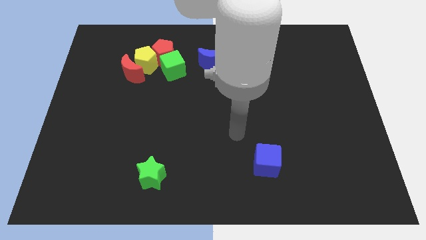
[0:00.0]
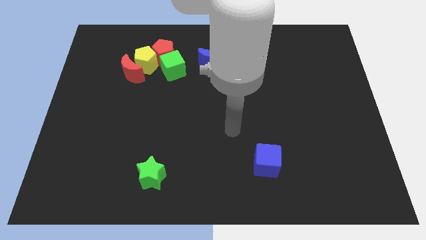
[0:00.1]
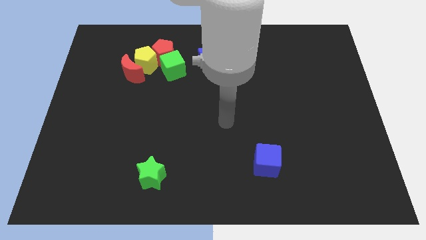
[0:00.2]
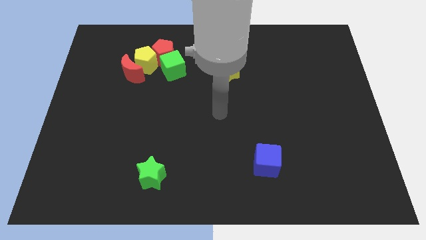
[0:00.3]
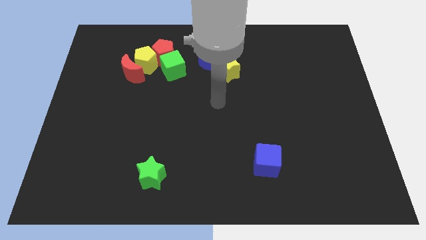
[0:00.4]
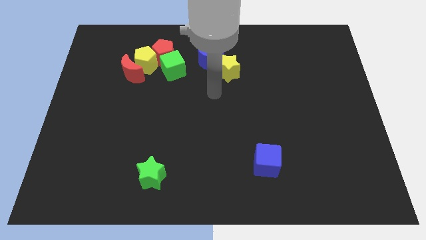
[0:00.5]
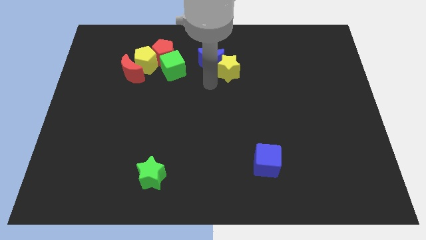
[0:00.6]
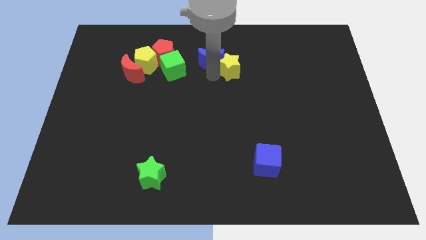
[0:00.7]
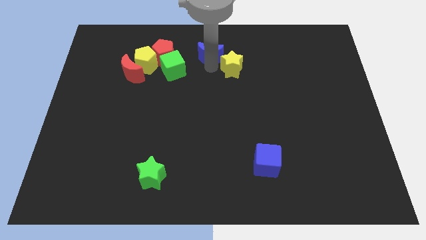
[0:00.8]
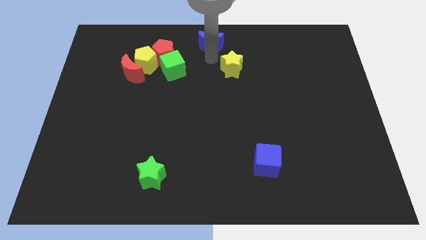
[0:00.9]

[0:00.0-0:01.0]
pull the yellow star apart from the blue moon

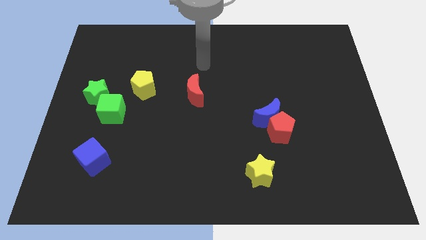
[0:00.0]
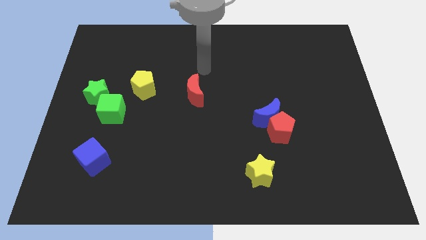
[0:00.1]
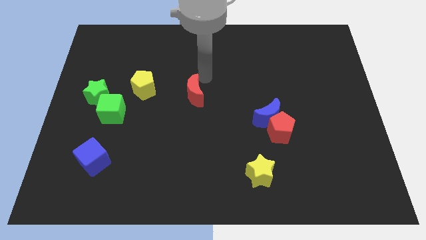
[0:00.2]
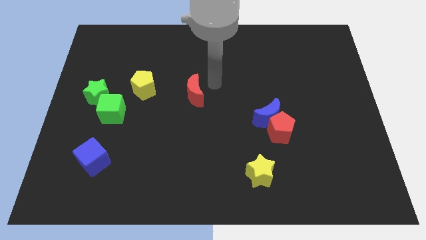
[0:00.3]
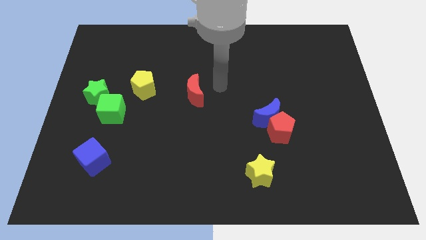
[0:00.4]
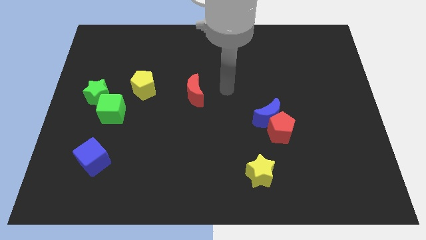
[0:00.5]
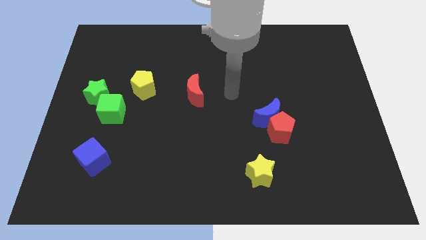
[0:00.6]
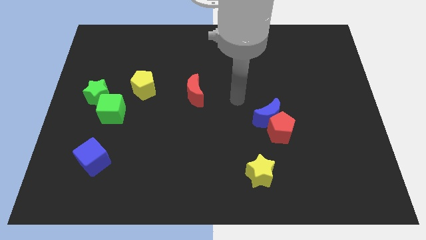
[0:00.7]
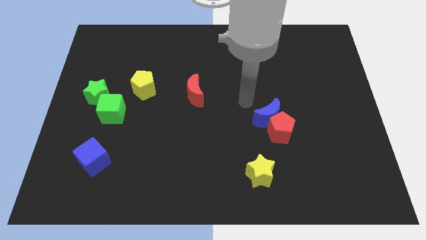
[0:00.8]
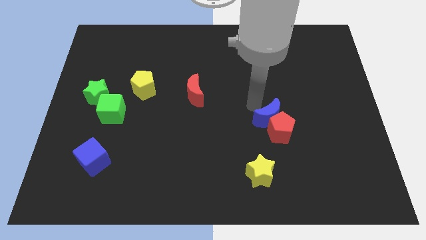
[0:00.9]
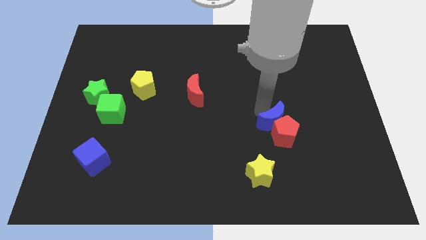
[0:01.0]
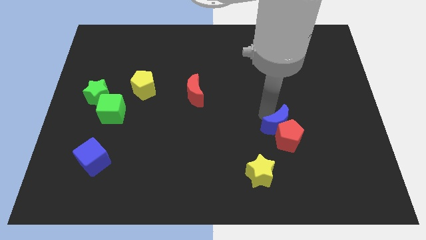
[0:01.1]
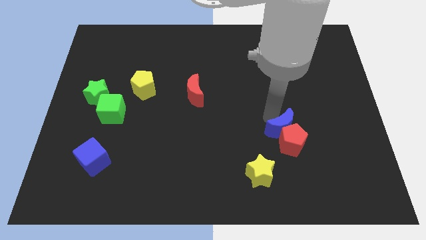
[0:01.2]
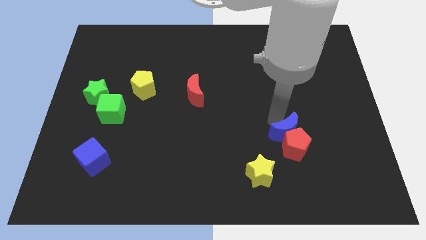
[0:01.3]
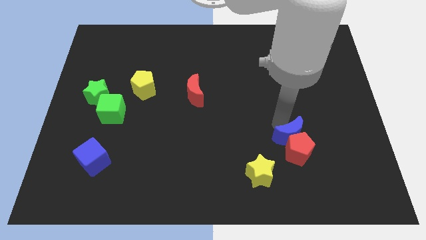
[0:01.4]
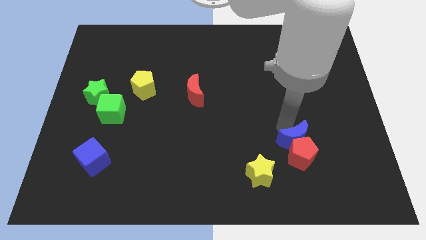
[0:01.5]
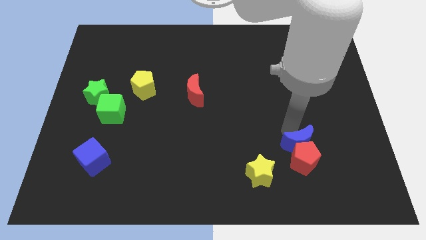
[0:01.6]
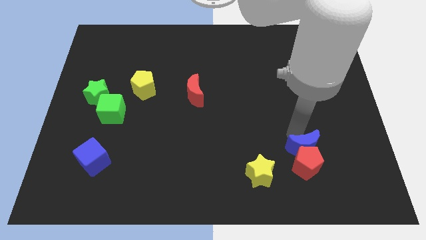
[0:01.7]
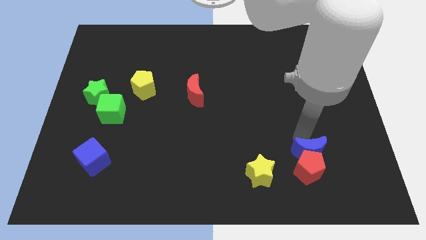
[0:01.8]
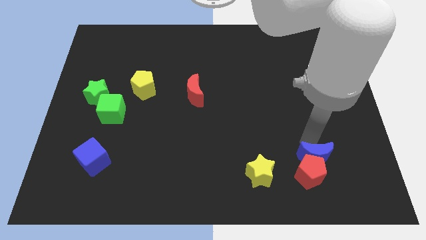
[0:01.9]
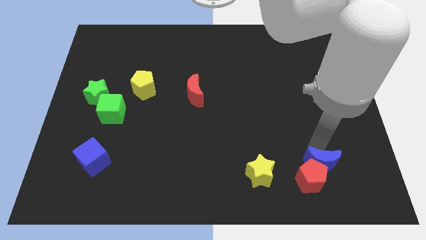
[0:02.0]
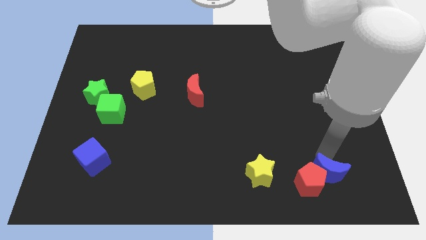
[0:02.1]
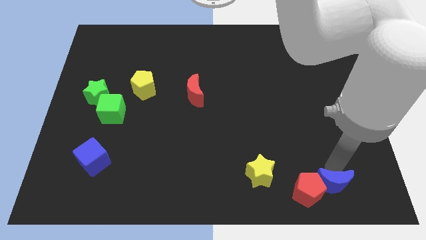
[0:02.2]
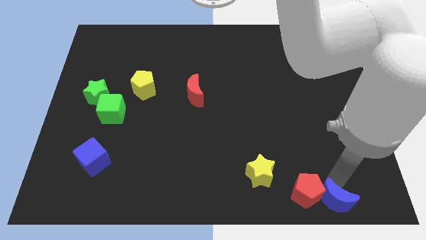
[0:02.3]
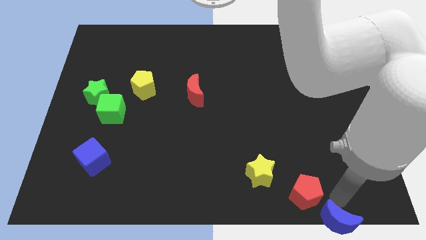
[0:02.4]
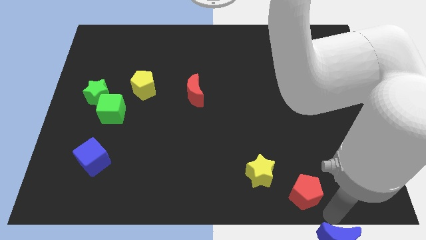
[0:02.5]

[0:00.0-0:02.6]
move the red pentagon away from the blue moon

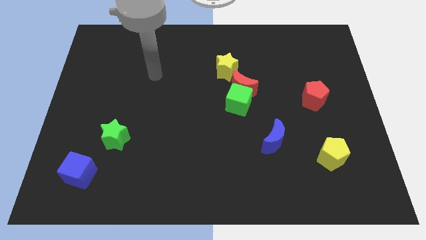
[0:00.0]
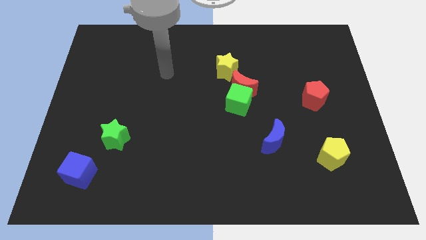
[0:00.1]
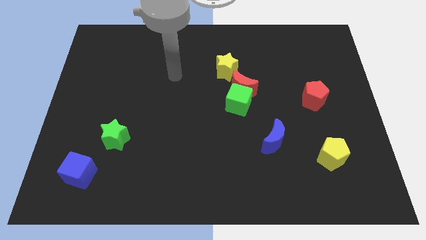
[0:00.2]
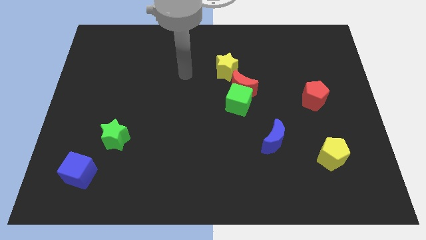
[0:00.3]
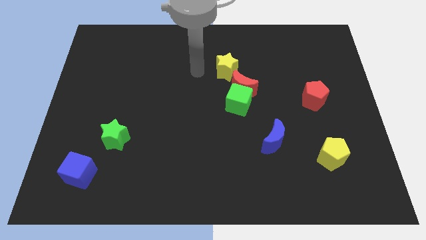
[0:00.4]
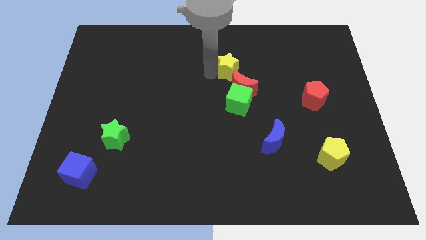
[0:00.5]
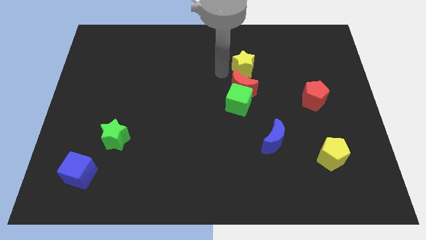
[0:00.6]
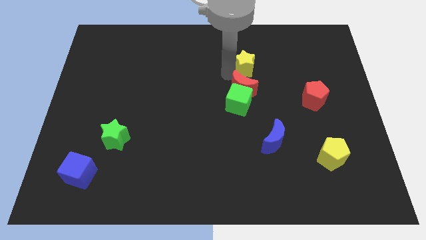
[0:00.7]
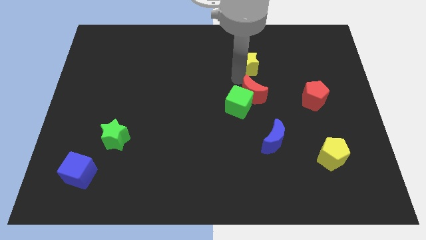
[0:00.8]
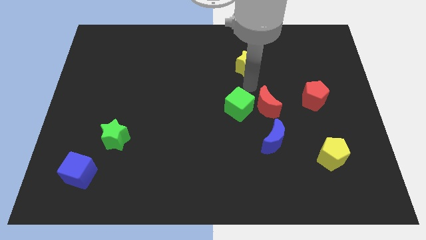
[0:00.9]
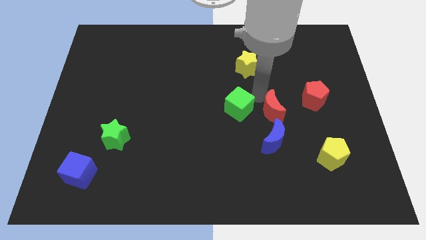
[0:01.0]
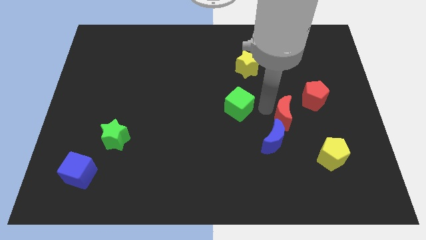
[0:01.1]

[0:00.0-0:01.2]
separate the green cube from the red moon

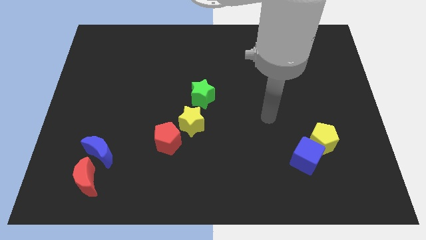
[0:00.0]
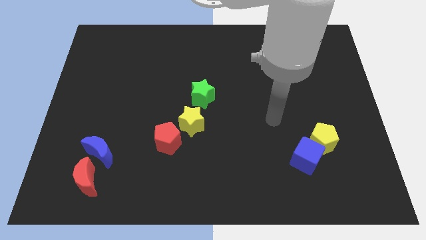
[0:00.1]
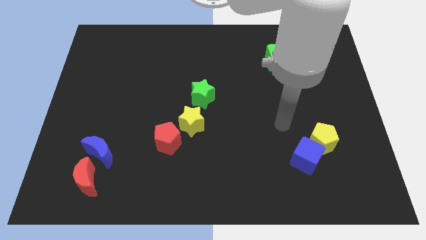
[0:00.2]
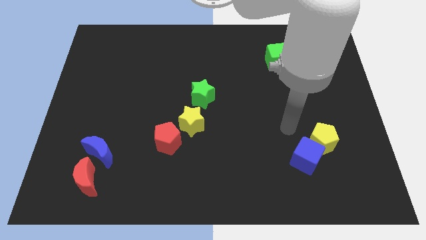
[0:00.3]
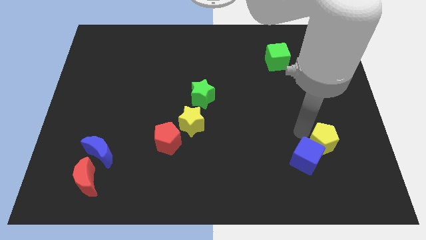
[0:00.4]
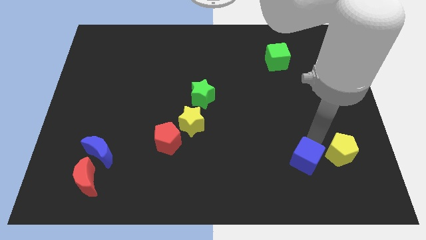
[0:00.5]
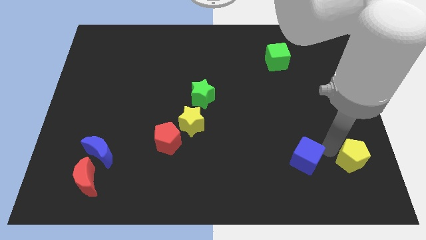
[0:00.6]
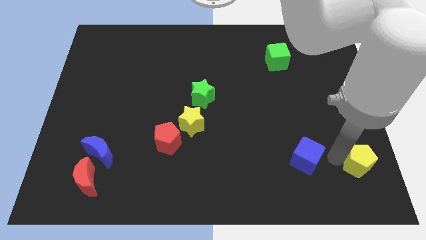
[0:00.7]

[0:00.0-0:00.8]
pull the blue cube apart from the yellow pentagon

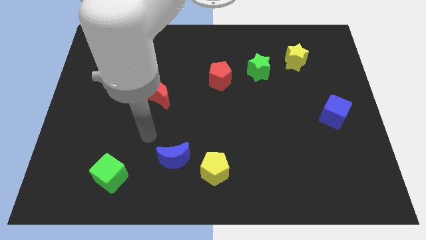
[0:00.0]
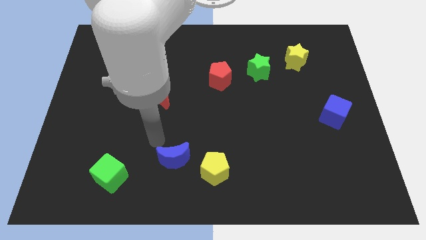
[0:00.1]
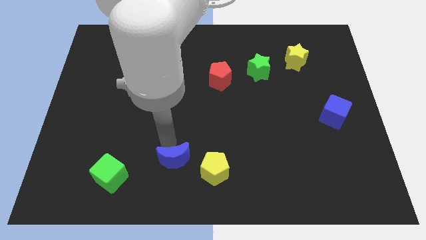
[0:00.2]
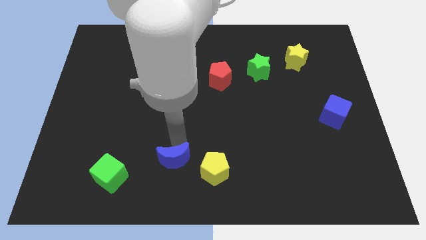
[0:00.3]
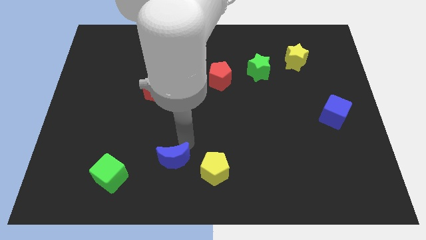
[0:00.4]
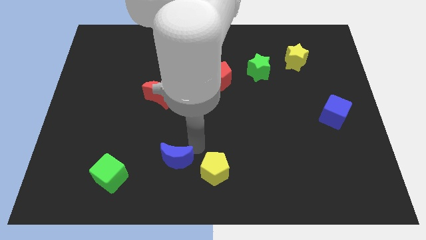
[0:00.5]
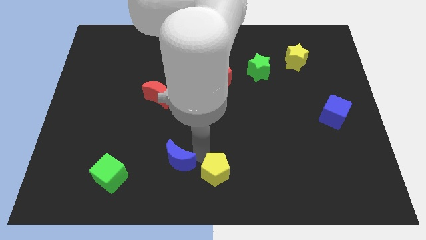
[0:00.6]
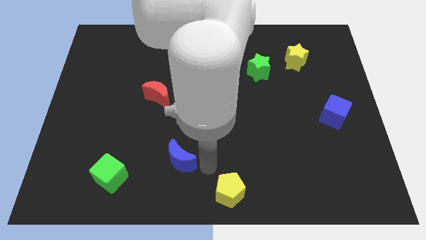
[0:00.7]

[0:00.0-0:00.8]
pull the blue moon apart from the yellow pentagon

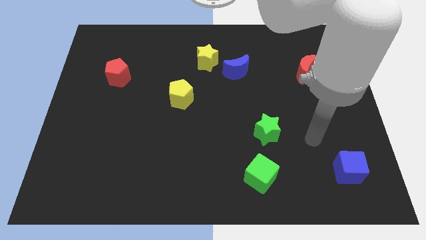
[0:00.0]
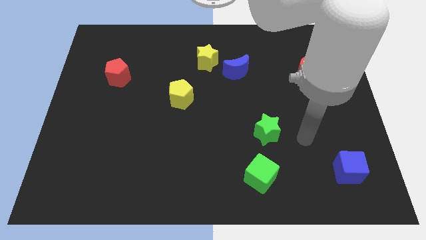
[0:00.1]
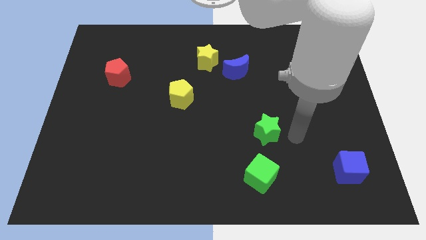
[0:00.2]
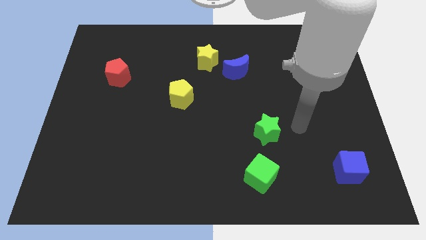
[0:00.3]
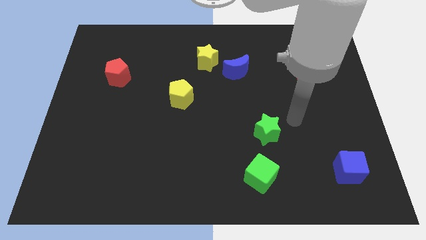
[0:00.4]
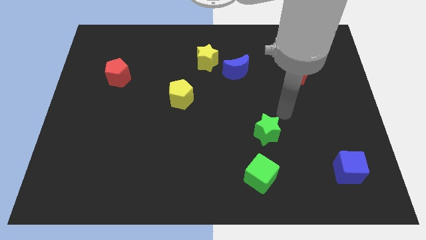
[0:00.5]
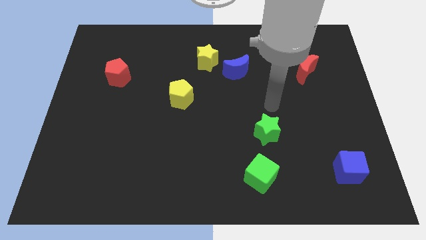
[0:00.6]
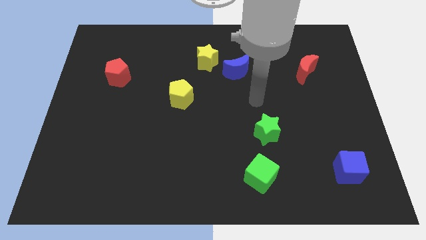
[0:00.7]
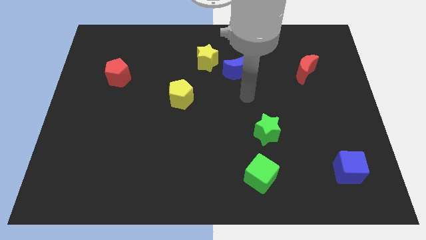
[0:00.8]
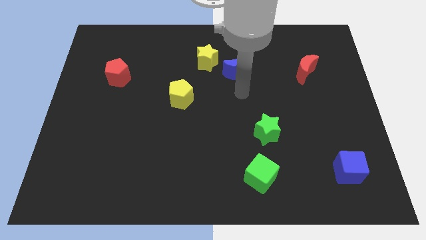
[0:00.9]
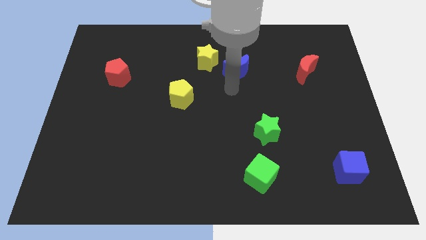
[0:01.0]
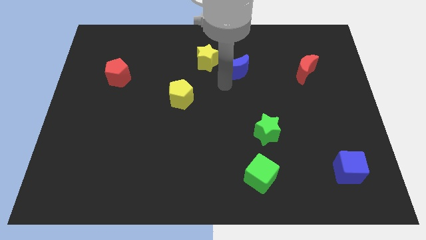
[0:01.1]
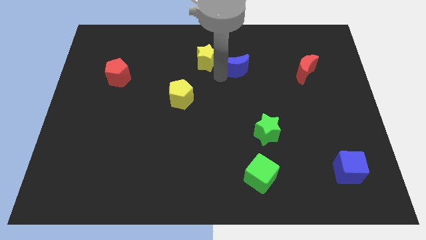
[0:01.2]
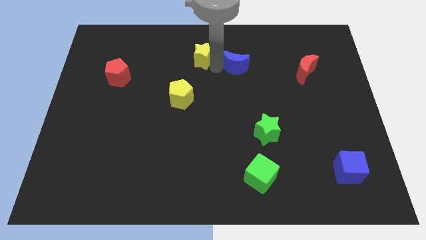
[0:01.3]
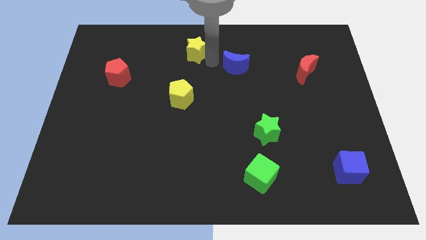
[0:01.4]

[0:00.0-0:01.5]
pull the blue moon apart from the yellow star

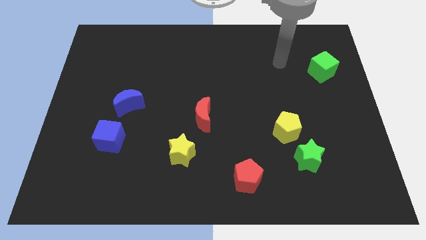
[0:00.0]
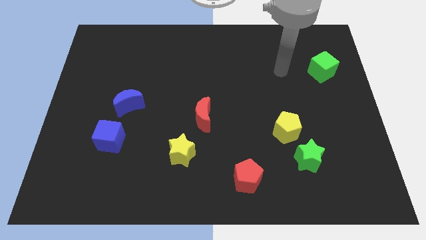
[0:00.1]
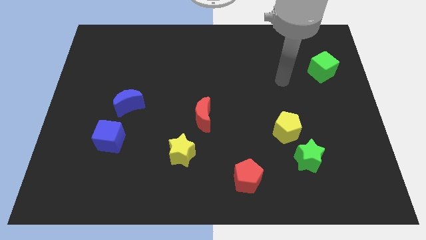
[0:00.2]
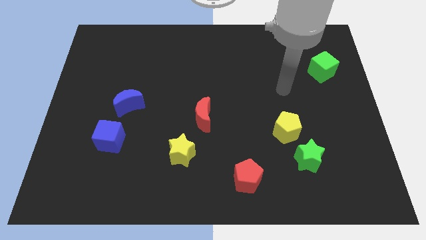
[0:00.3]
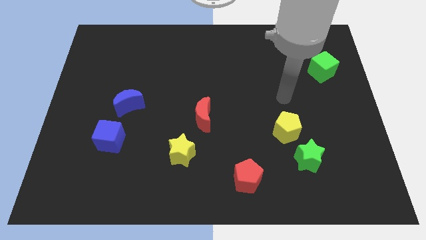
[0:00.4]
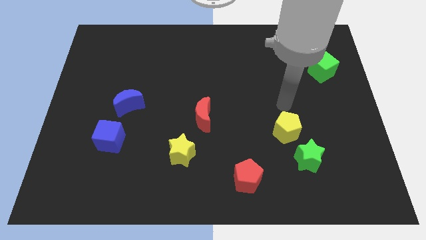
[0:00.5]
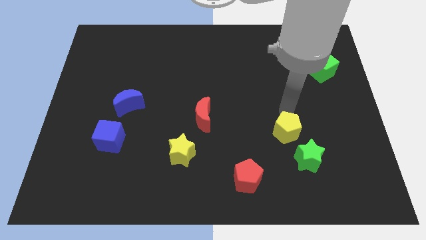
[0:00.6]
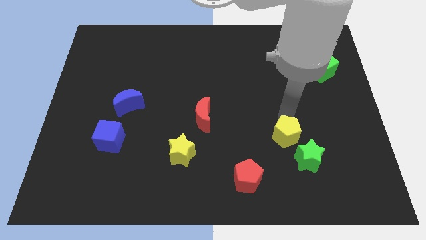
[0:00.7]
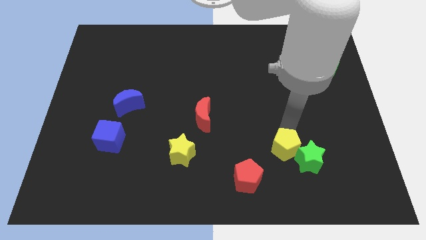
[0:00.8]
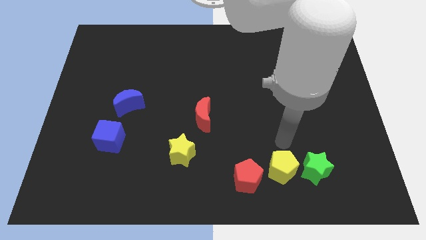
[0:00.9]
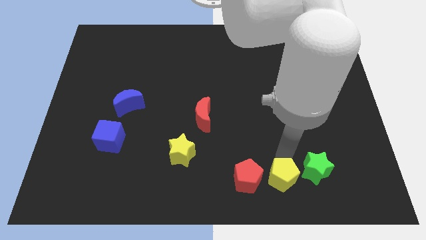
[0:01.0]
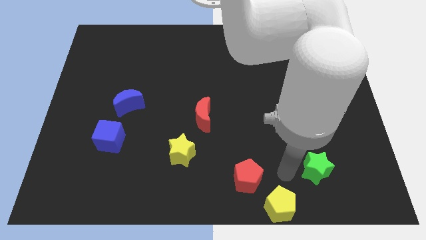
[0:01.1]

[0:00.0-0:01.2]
move the green star away from the yellow pentagon

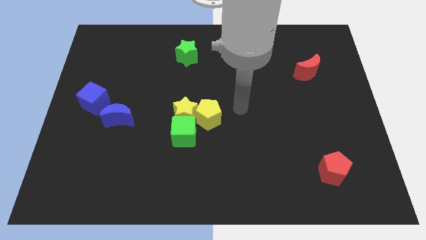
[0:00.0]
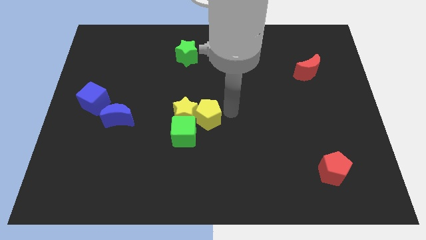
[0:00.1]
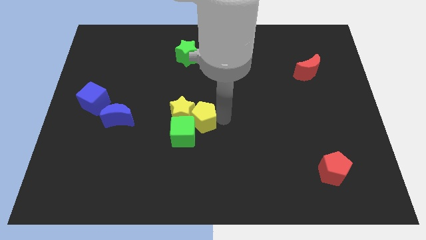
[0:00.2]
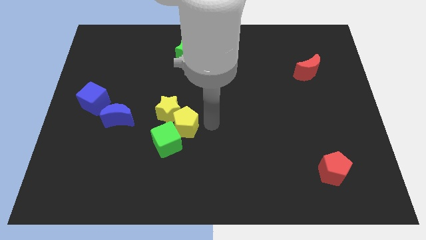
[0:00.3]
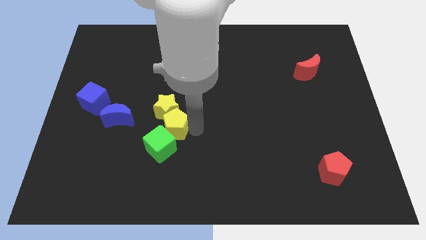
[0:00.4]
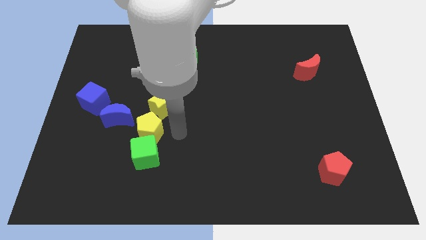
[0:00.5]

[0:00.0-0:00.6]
separate the yellow star from the green cube and yellow pentagon
